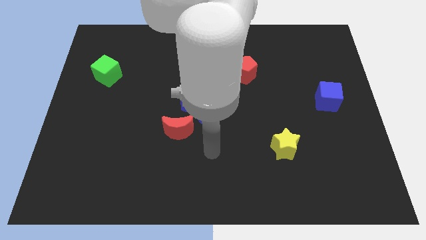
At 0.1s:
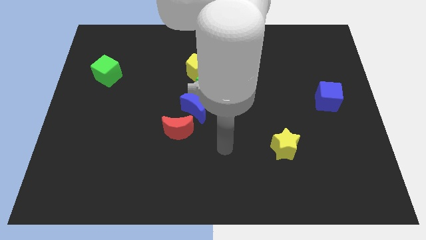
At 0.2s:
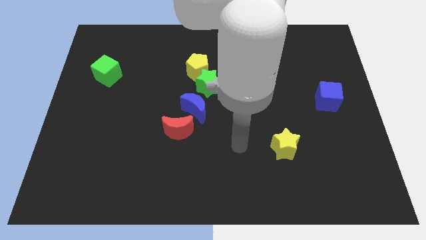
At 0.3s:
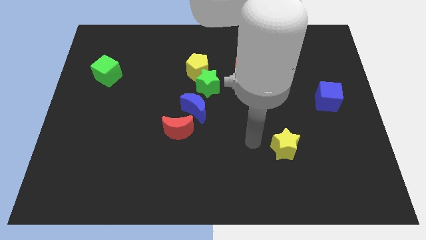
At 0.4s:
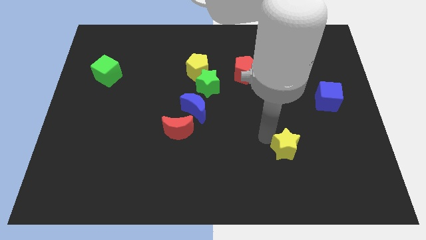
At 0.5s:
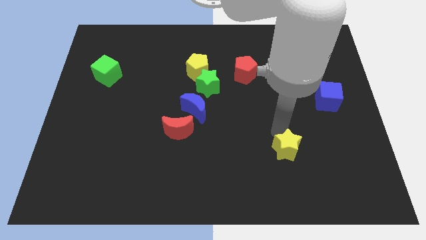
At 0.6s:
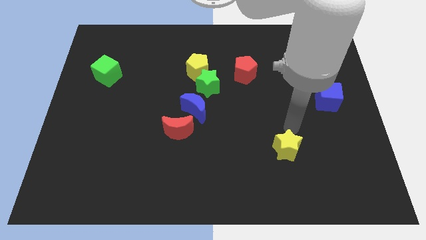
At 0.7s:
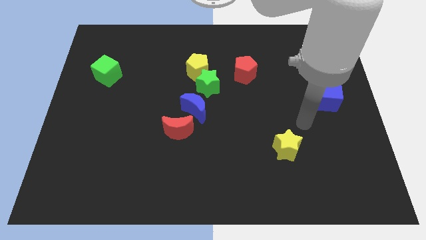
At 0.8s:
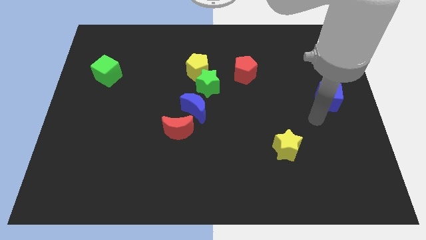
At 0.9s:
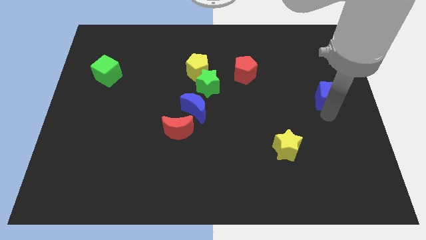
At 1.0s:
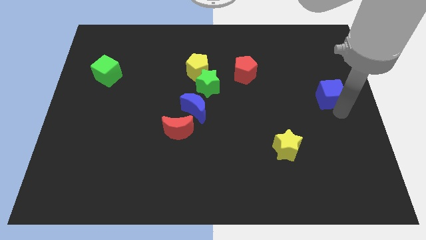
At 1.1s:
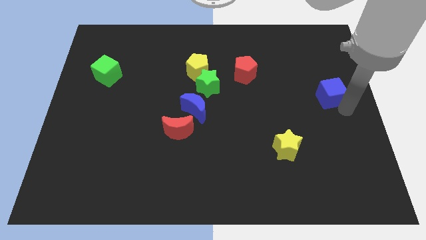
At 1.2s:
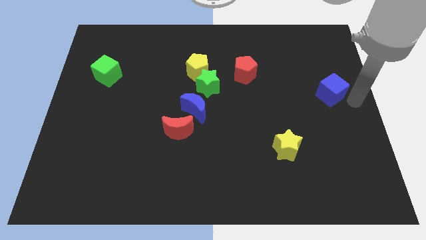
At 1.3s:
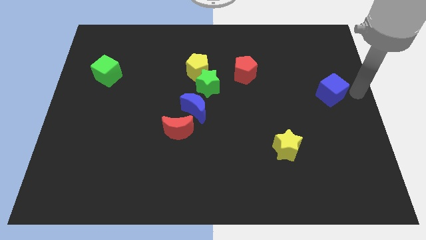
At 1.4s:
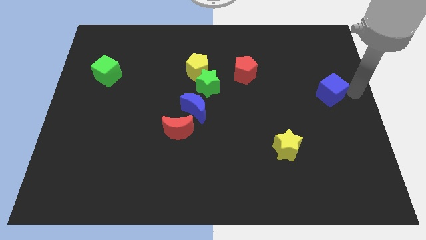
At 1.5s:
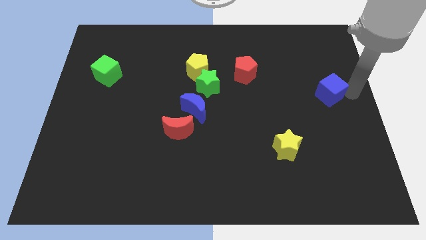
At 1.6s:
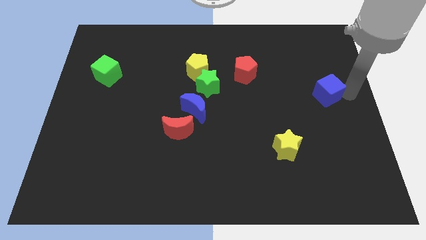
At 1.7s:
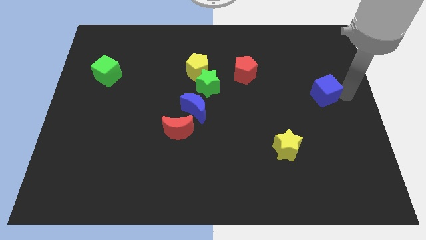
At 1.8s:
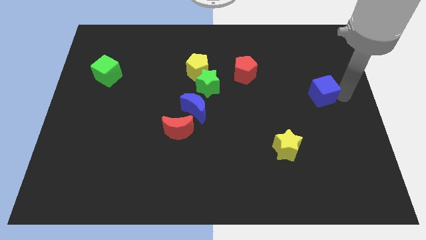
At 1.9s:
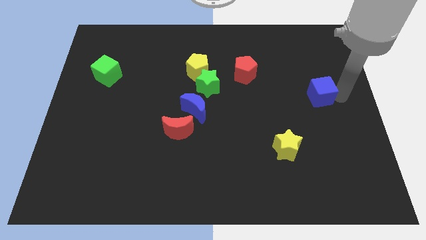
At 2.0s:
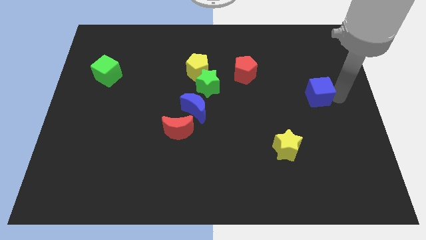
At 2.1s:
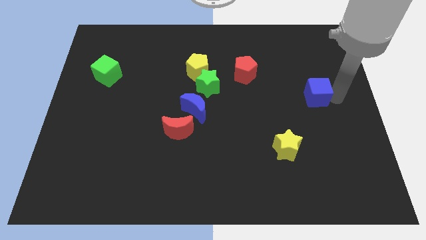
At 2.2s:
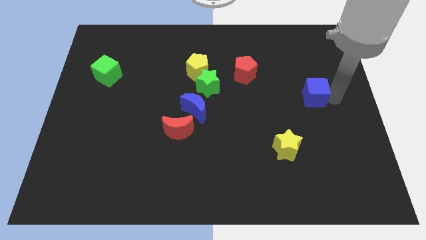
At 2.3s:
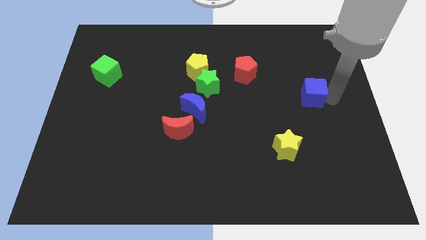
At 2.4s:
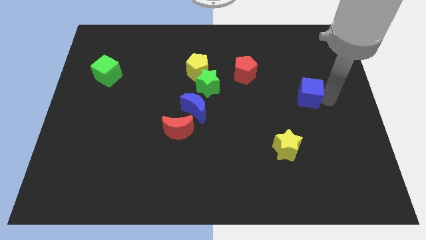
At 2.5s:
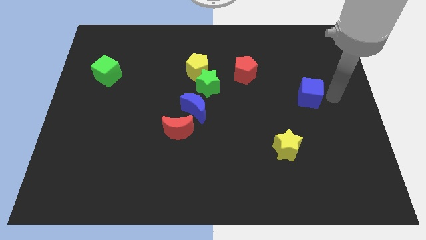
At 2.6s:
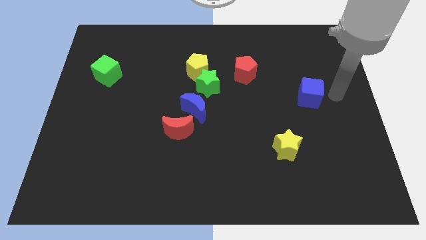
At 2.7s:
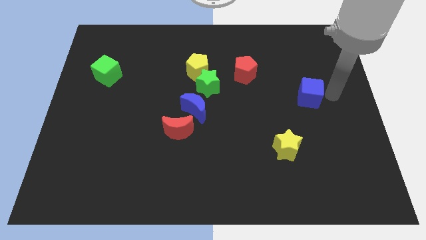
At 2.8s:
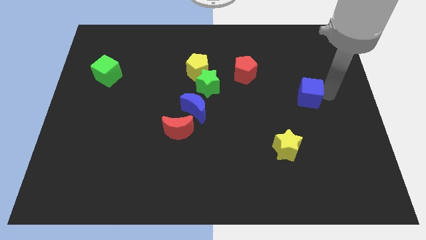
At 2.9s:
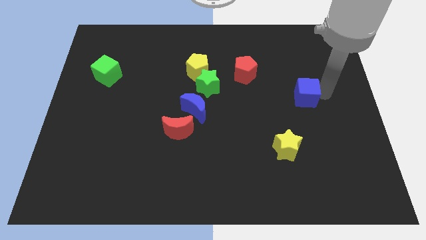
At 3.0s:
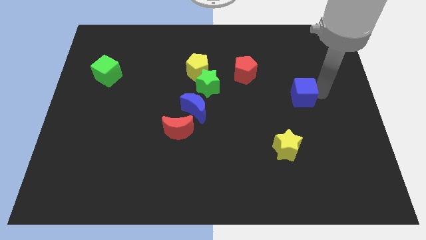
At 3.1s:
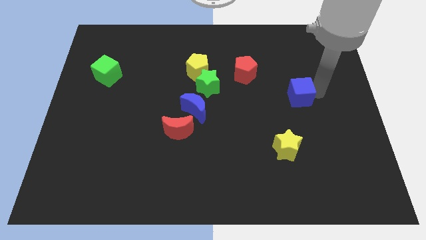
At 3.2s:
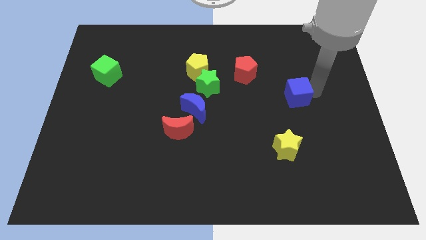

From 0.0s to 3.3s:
move the blue cube a bit to the left

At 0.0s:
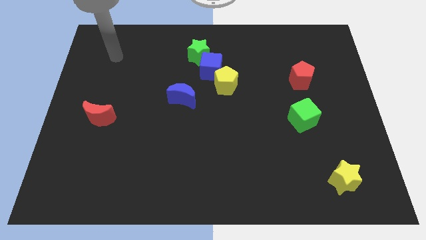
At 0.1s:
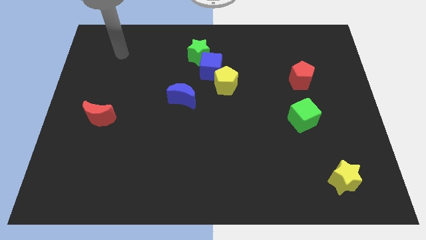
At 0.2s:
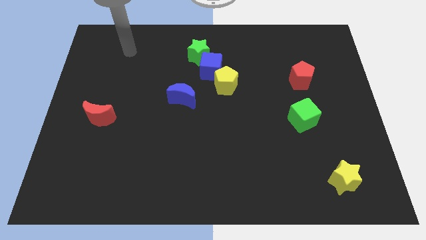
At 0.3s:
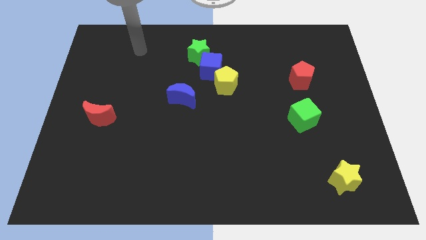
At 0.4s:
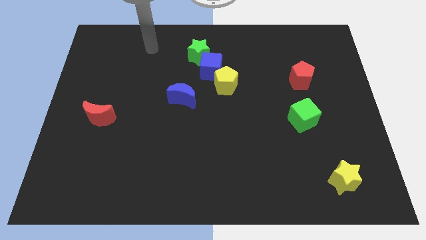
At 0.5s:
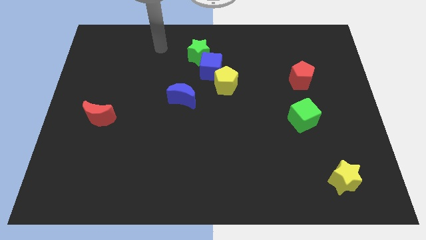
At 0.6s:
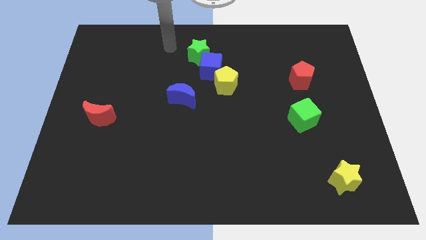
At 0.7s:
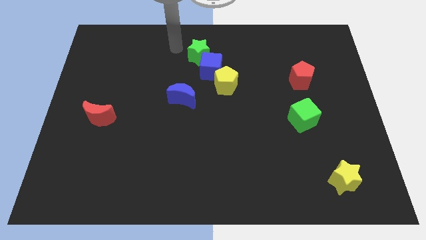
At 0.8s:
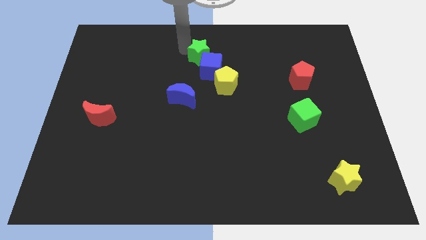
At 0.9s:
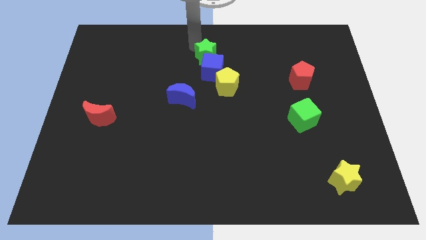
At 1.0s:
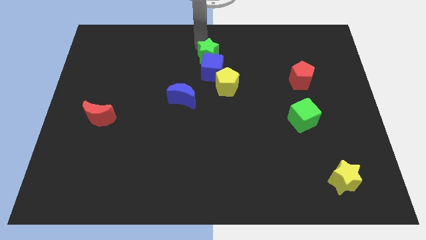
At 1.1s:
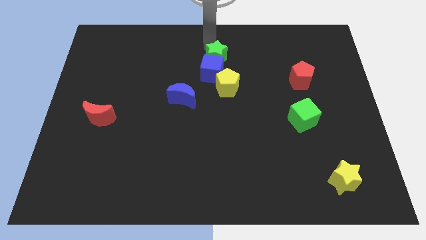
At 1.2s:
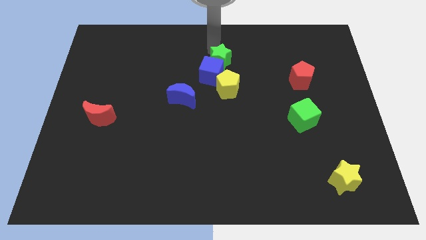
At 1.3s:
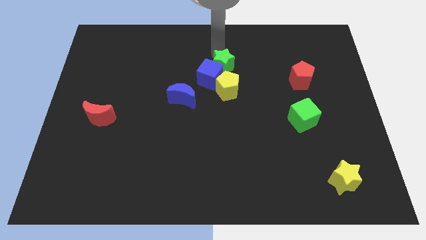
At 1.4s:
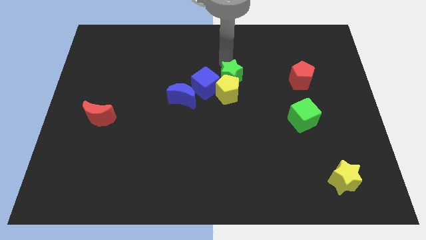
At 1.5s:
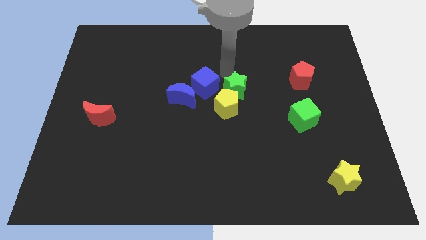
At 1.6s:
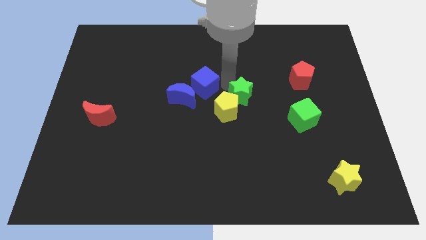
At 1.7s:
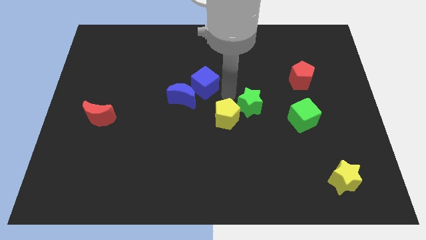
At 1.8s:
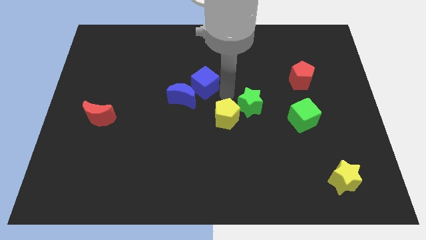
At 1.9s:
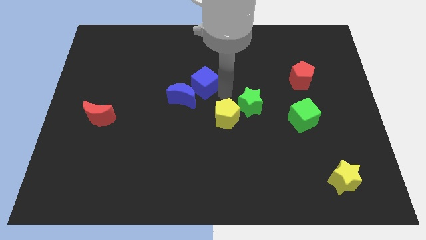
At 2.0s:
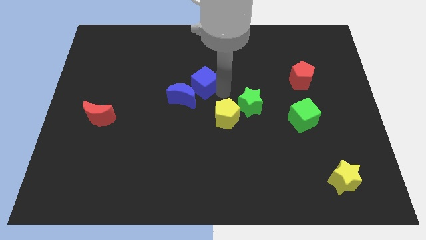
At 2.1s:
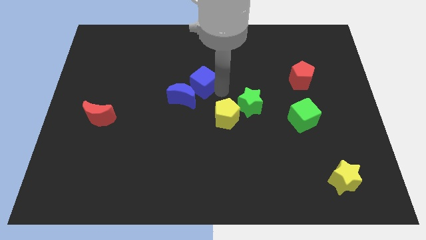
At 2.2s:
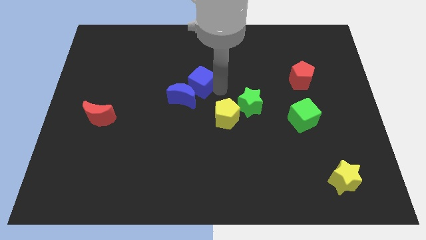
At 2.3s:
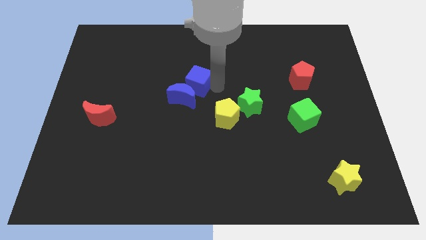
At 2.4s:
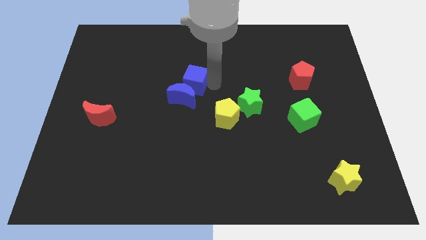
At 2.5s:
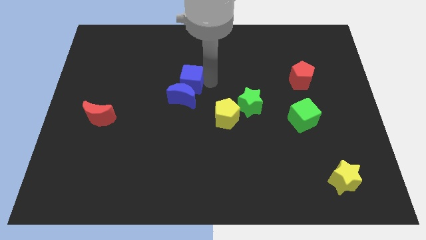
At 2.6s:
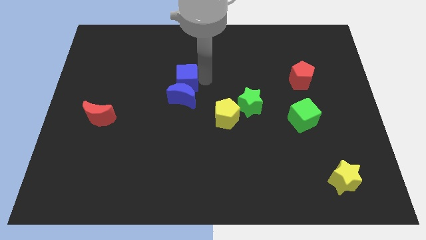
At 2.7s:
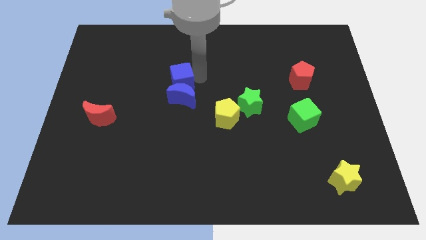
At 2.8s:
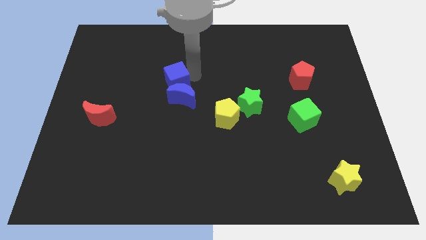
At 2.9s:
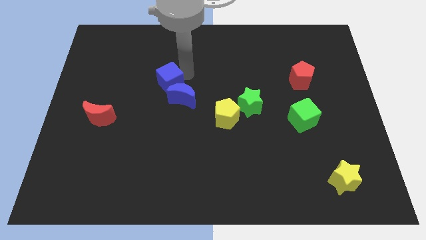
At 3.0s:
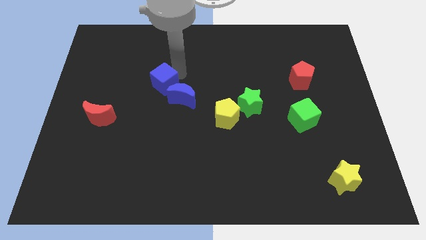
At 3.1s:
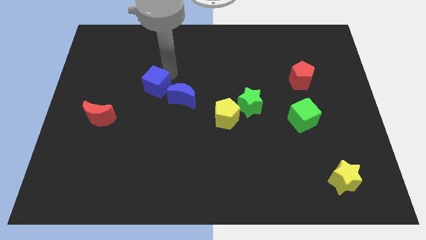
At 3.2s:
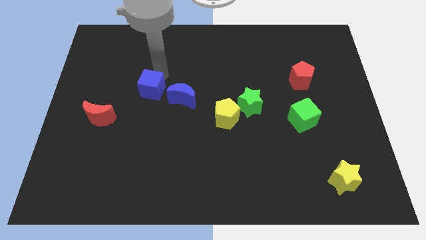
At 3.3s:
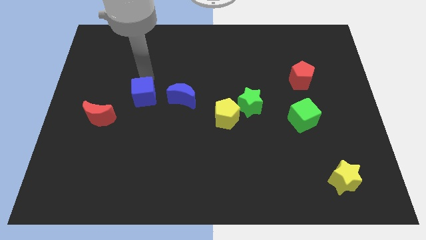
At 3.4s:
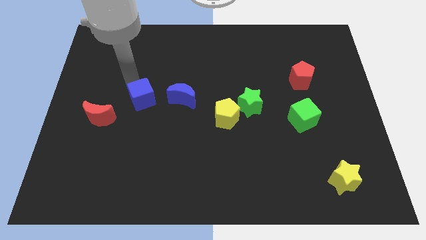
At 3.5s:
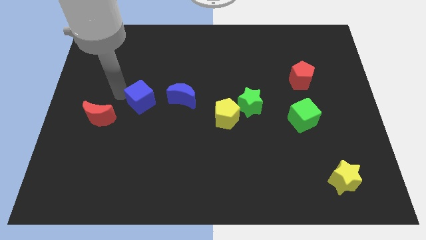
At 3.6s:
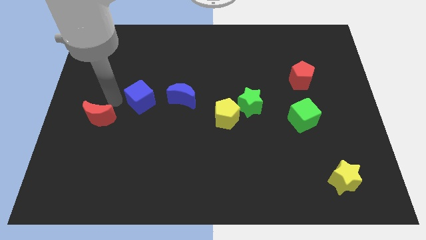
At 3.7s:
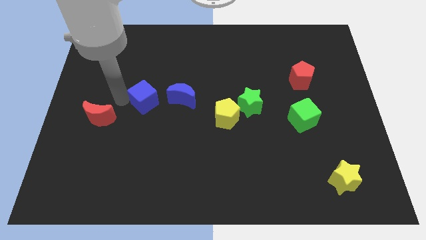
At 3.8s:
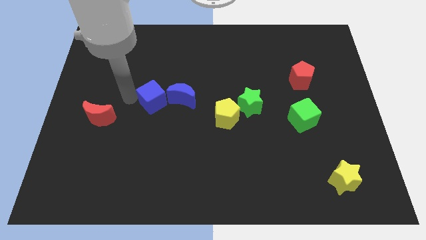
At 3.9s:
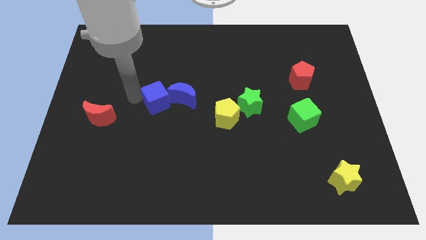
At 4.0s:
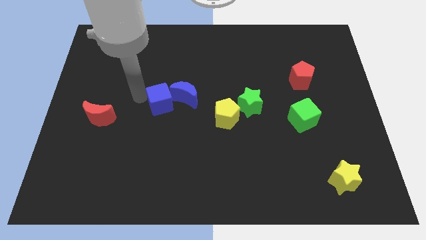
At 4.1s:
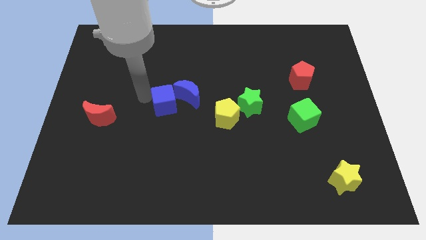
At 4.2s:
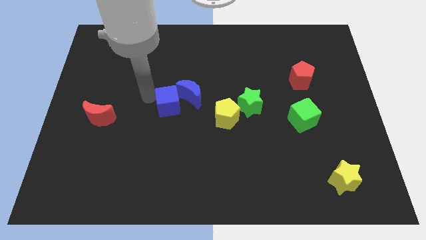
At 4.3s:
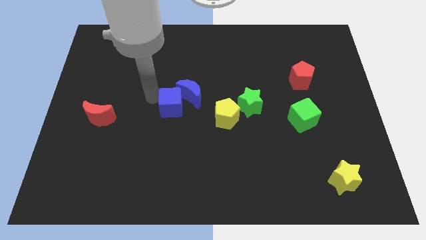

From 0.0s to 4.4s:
slightly push the blue cube down

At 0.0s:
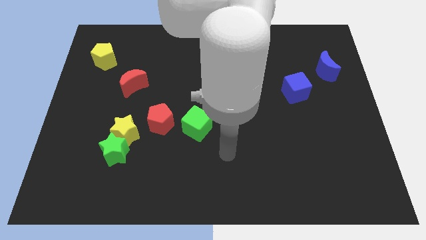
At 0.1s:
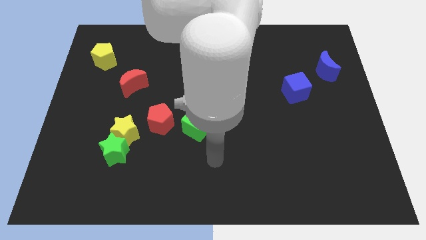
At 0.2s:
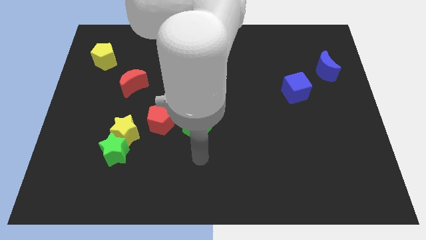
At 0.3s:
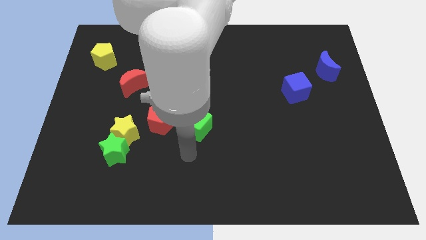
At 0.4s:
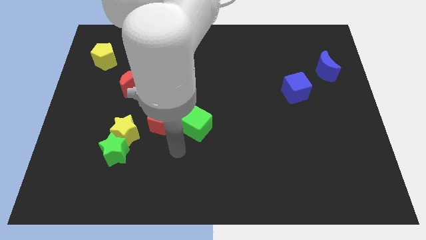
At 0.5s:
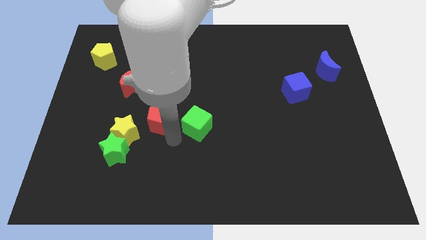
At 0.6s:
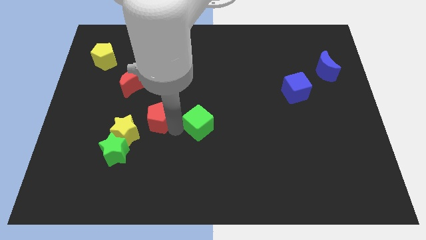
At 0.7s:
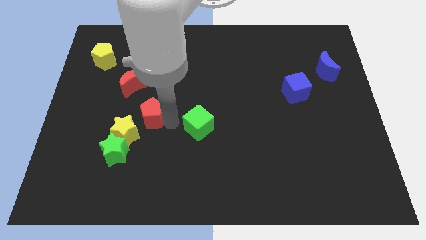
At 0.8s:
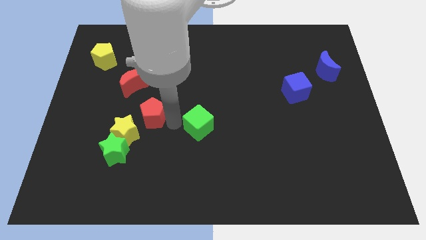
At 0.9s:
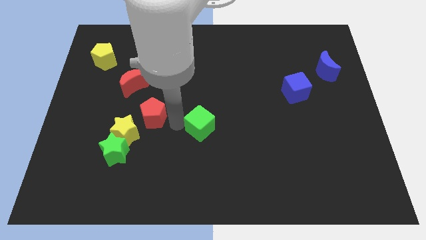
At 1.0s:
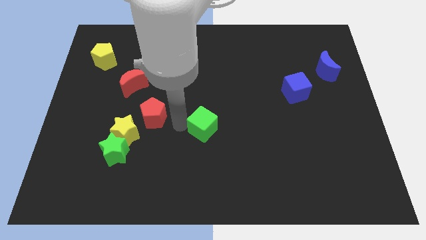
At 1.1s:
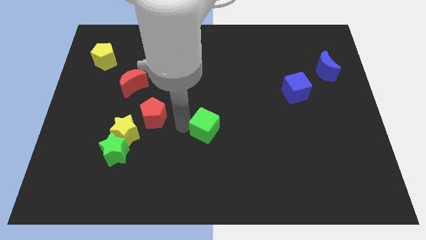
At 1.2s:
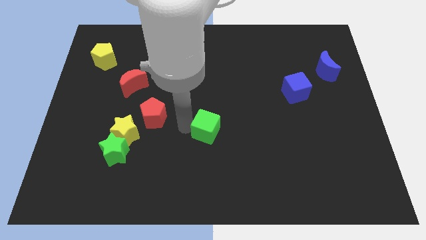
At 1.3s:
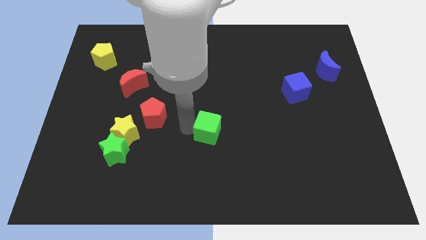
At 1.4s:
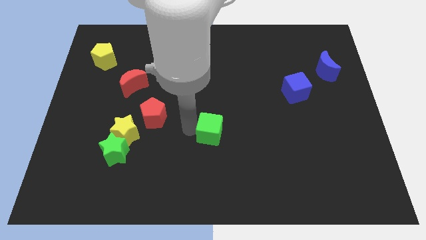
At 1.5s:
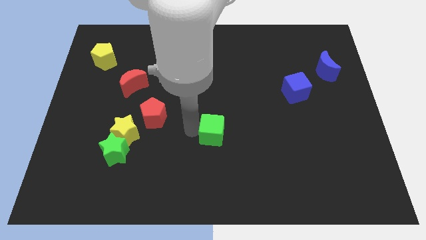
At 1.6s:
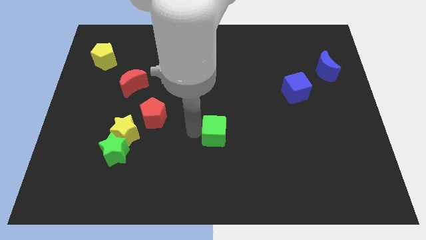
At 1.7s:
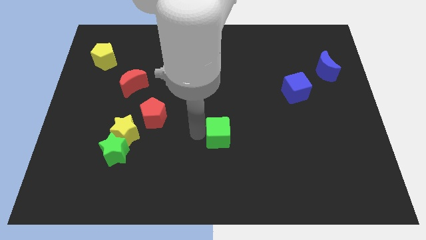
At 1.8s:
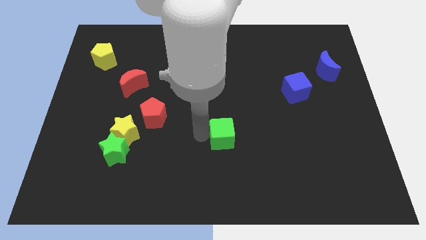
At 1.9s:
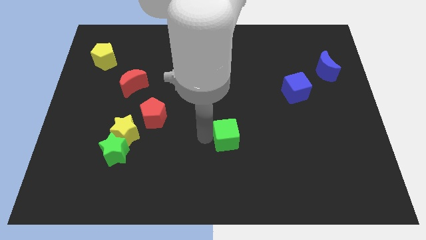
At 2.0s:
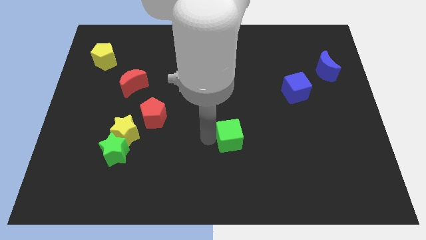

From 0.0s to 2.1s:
push the green cube slightly right
